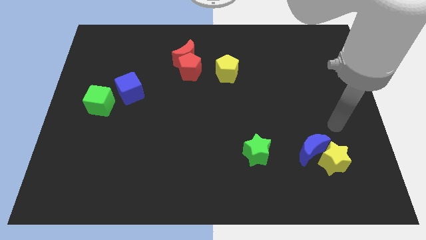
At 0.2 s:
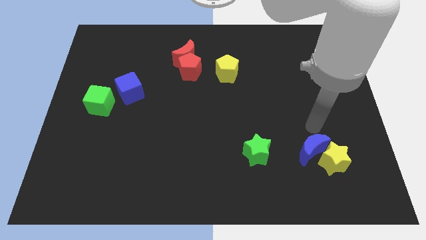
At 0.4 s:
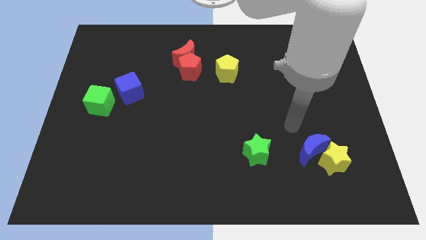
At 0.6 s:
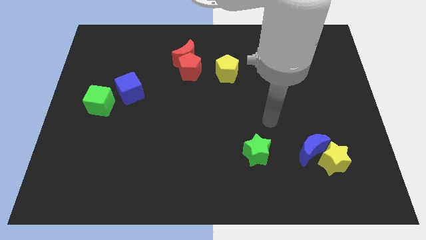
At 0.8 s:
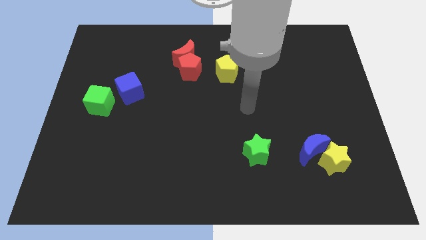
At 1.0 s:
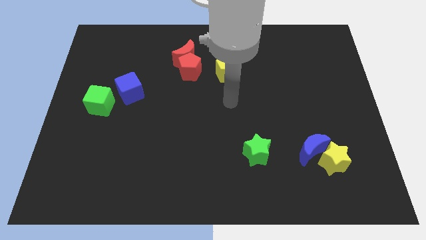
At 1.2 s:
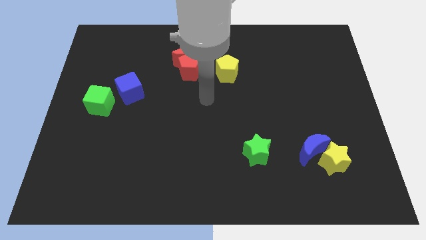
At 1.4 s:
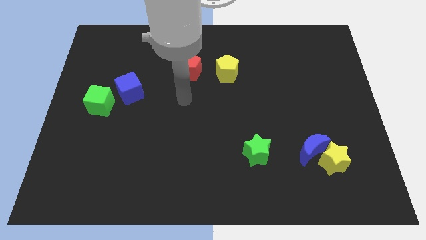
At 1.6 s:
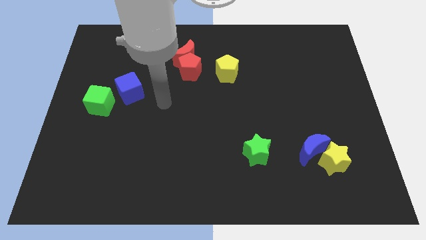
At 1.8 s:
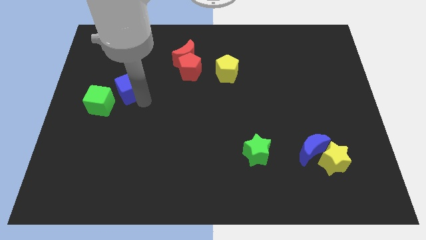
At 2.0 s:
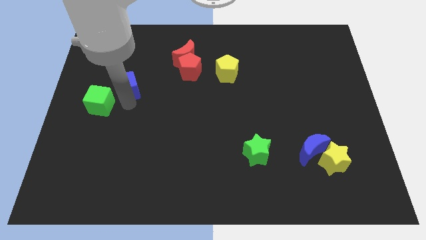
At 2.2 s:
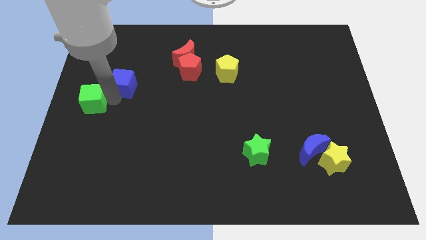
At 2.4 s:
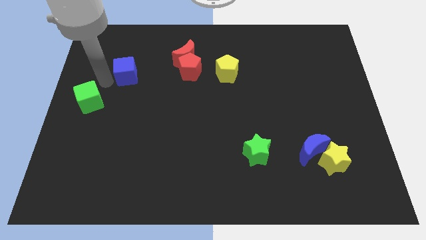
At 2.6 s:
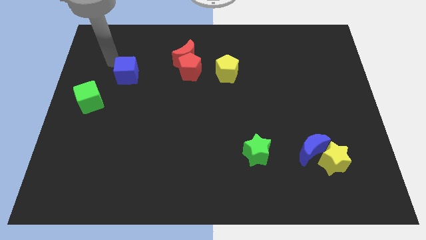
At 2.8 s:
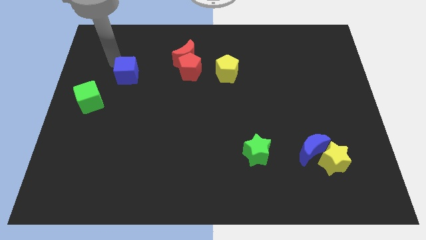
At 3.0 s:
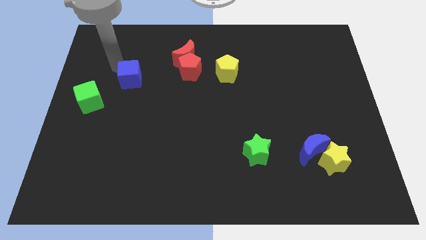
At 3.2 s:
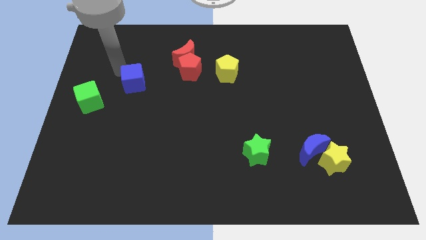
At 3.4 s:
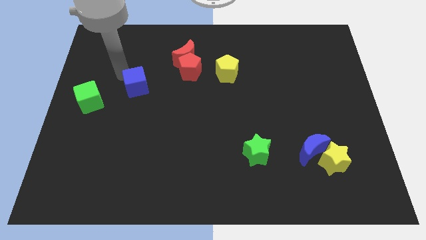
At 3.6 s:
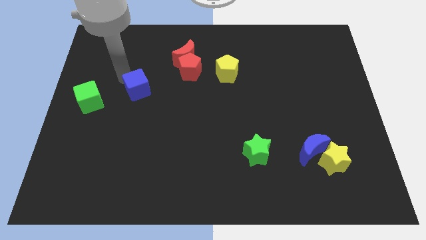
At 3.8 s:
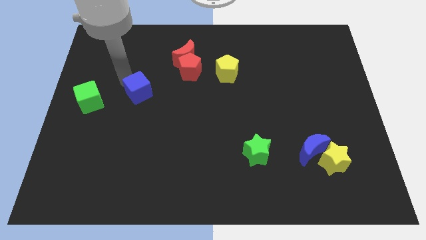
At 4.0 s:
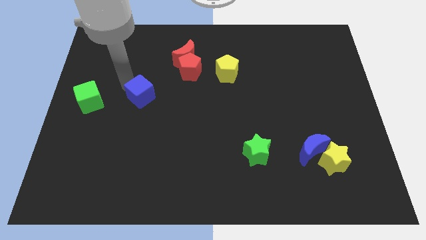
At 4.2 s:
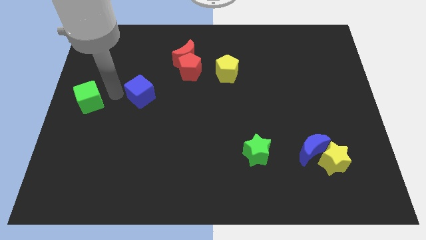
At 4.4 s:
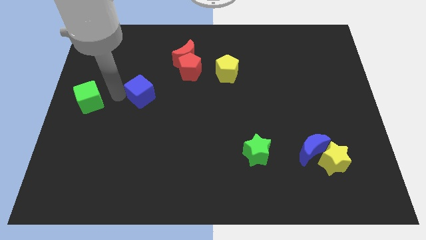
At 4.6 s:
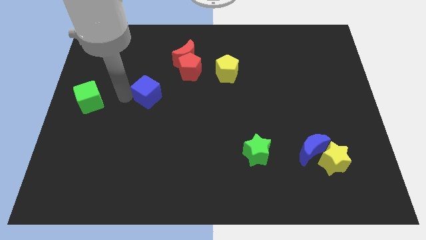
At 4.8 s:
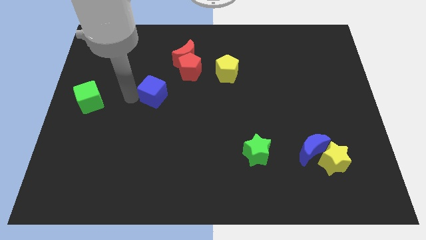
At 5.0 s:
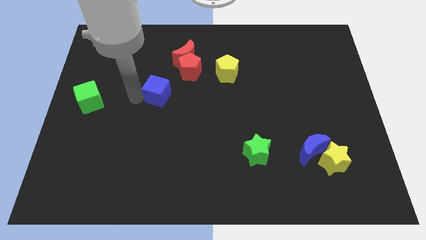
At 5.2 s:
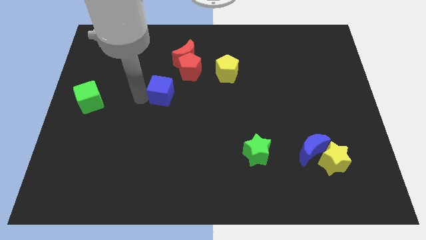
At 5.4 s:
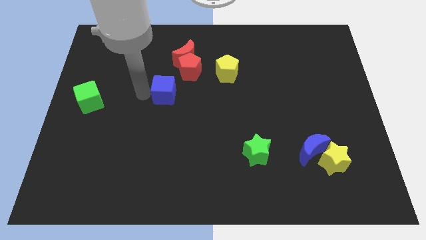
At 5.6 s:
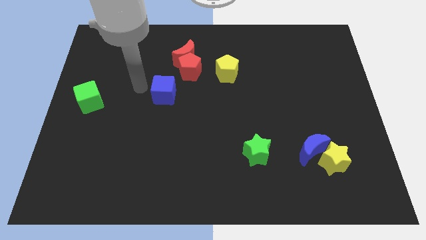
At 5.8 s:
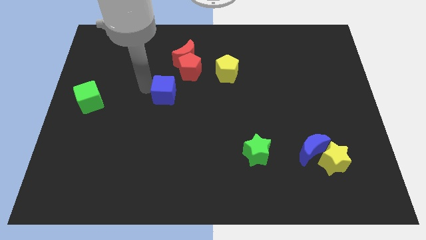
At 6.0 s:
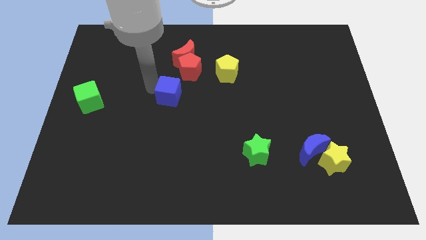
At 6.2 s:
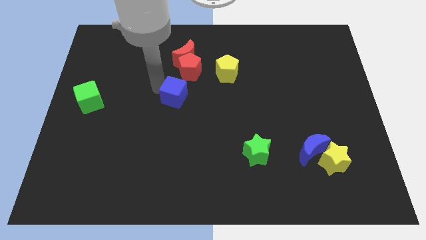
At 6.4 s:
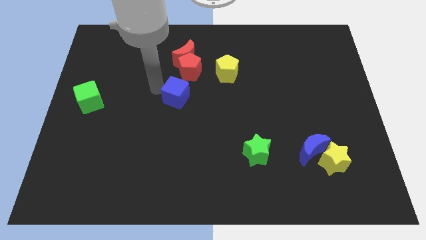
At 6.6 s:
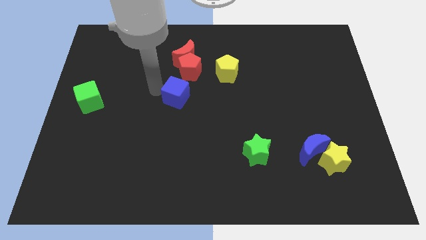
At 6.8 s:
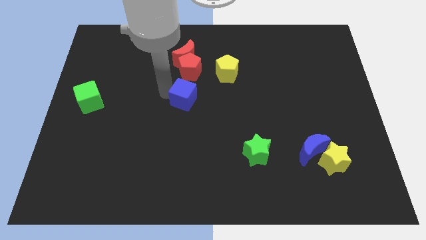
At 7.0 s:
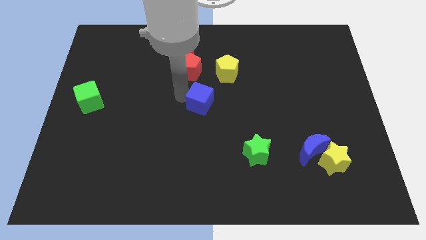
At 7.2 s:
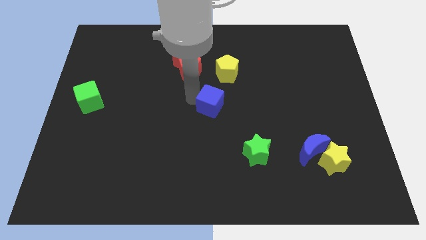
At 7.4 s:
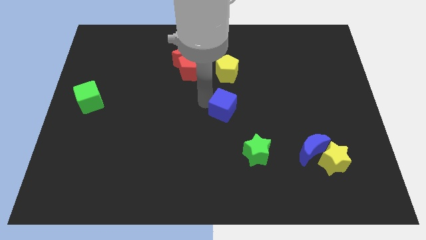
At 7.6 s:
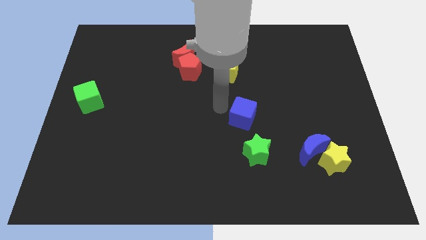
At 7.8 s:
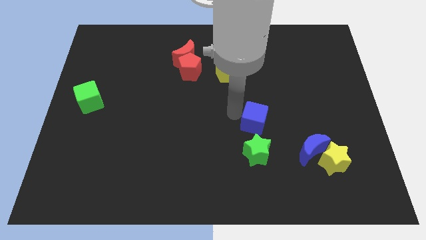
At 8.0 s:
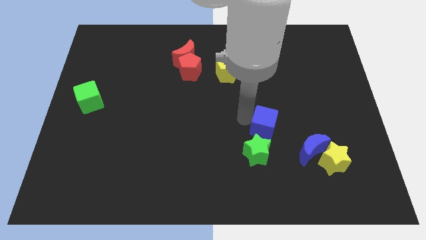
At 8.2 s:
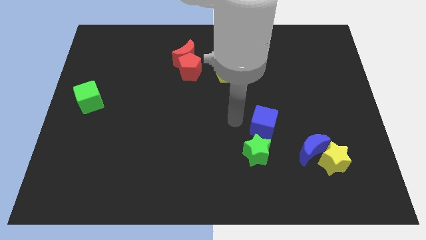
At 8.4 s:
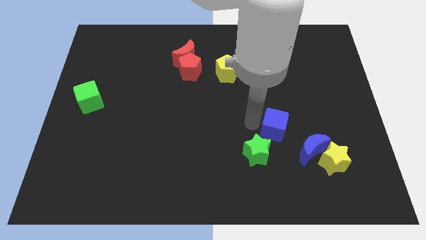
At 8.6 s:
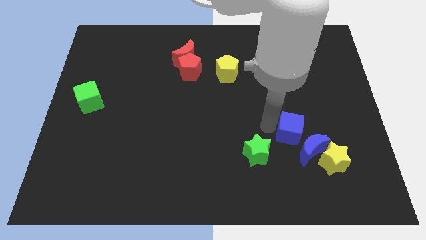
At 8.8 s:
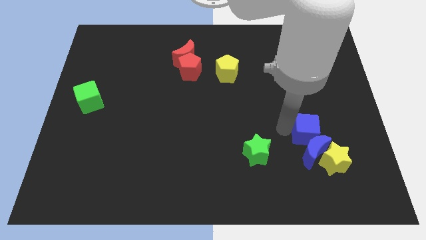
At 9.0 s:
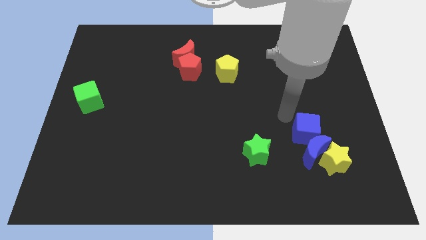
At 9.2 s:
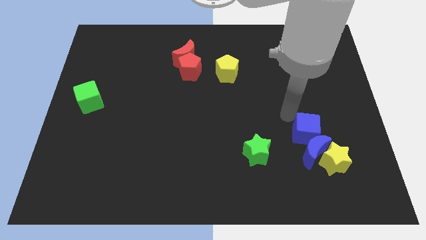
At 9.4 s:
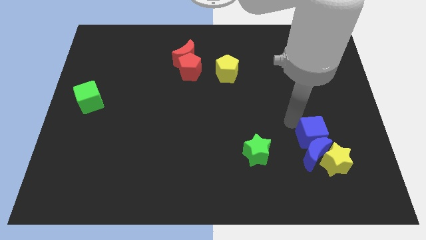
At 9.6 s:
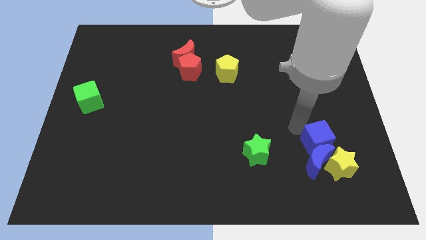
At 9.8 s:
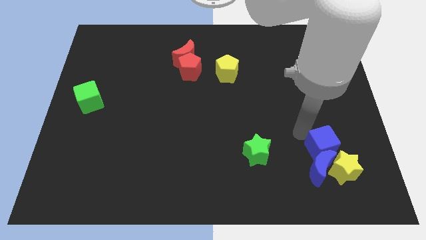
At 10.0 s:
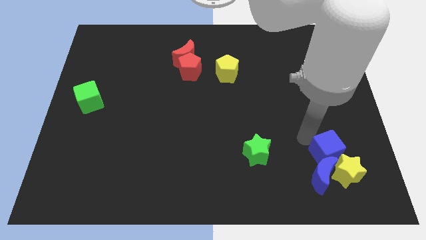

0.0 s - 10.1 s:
push the blue cube towards the yellow star

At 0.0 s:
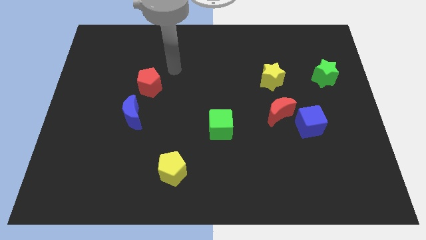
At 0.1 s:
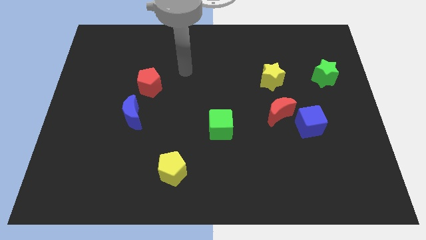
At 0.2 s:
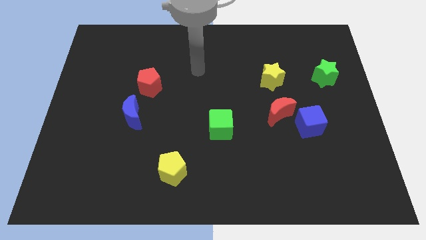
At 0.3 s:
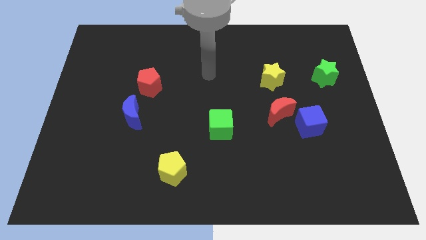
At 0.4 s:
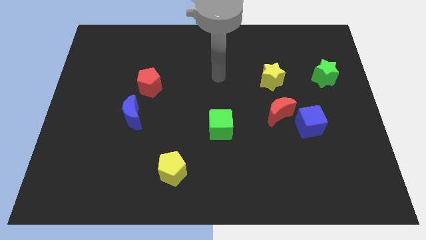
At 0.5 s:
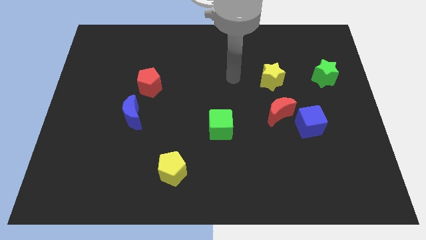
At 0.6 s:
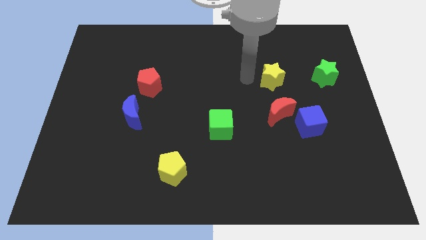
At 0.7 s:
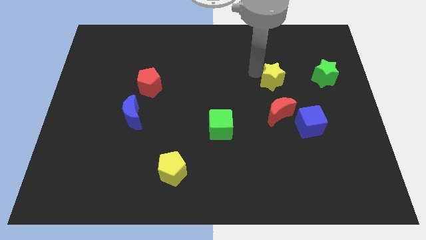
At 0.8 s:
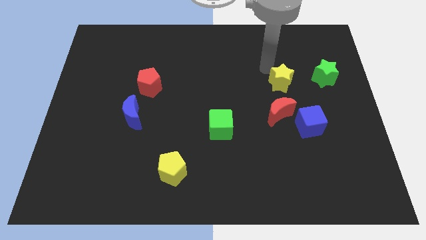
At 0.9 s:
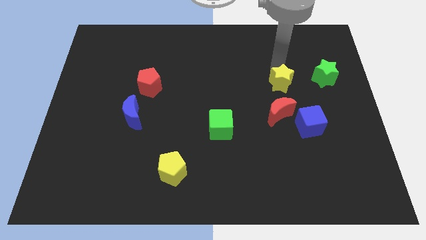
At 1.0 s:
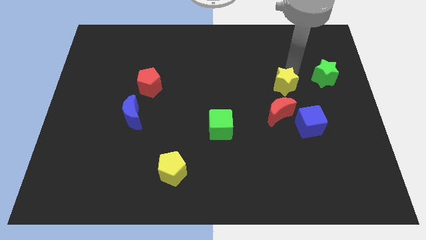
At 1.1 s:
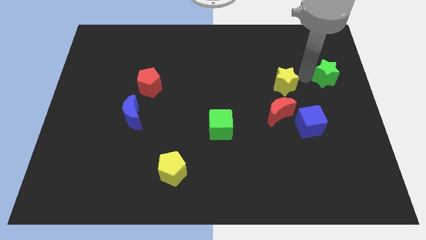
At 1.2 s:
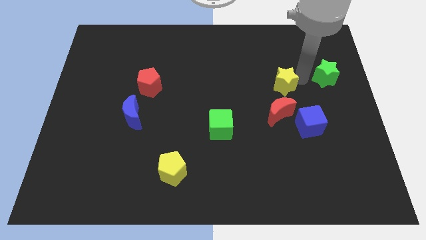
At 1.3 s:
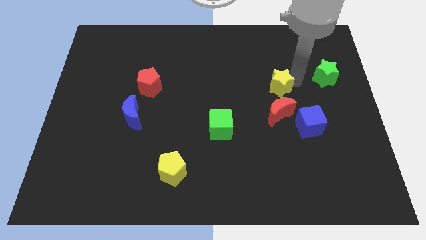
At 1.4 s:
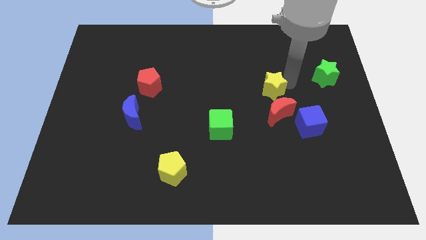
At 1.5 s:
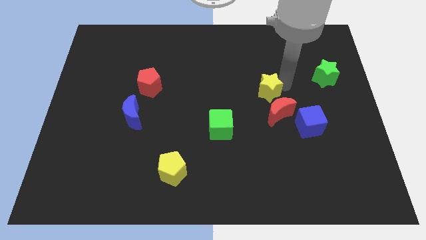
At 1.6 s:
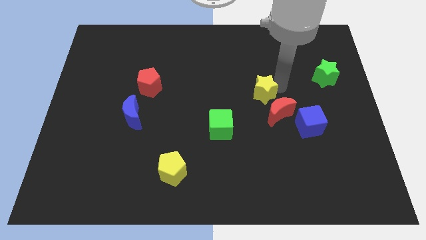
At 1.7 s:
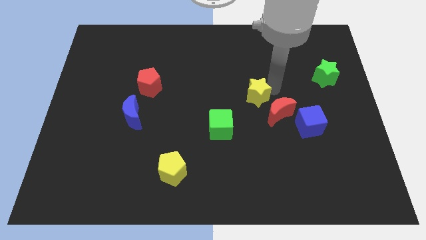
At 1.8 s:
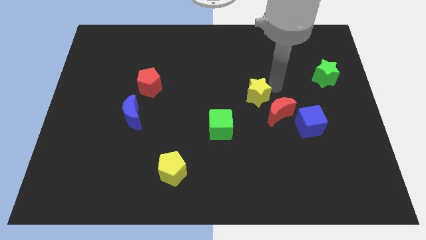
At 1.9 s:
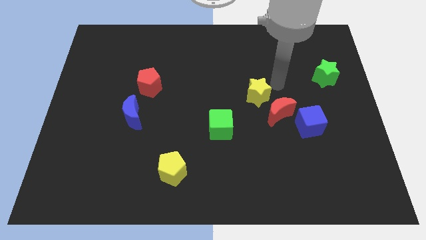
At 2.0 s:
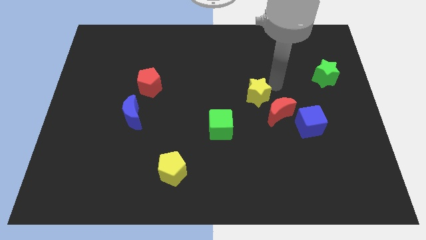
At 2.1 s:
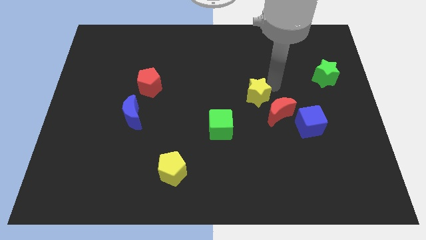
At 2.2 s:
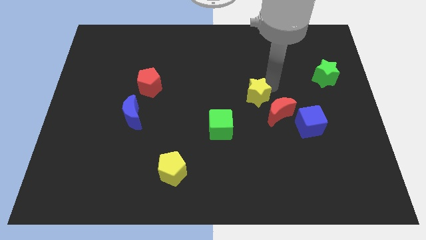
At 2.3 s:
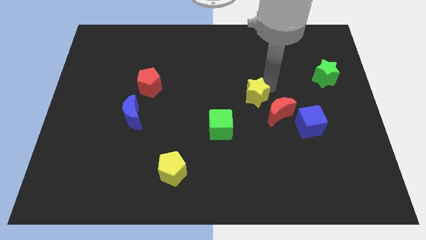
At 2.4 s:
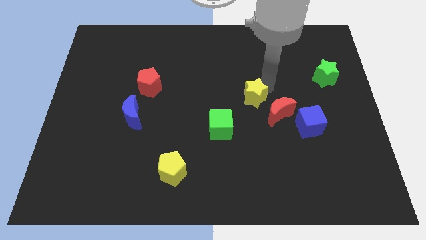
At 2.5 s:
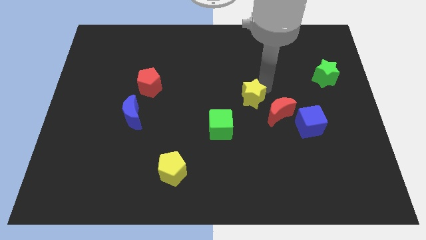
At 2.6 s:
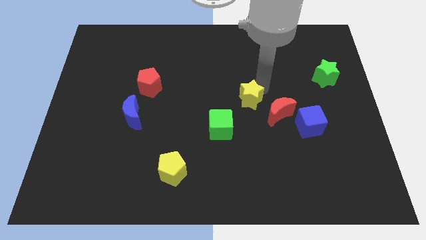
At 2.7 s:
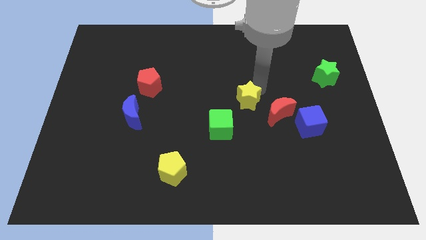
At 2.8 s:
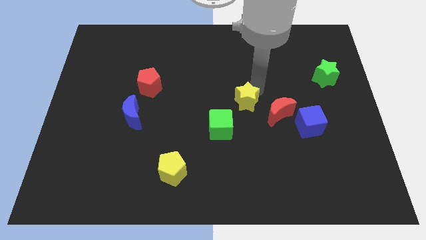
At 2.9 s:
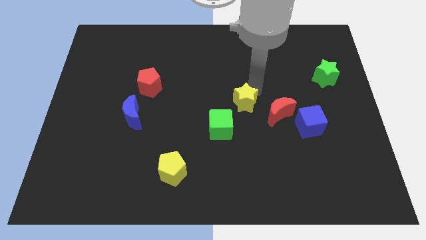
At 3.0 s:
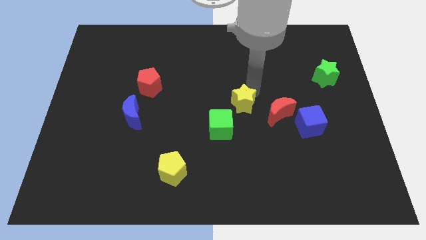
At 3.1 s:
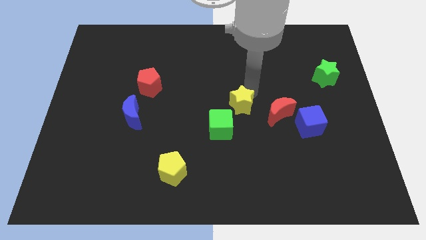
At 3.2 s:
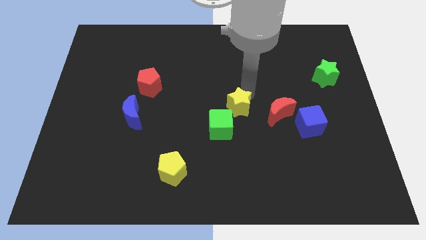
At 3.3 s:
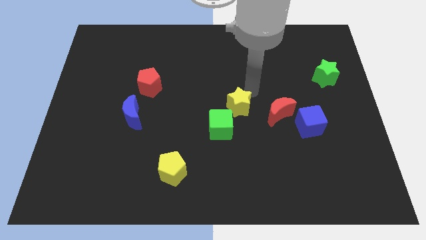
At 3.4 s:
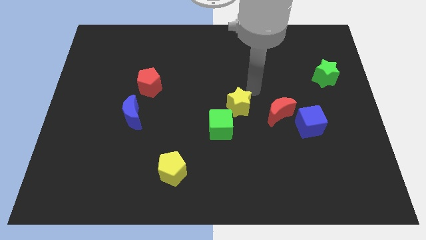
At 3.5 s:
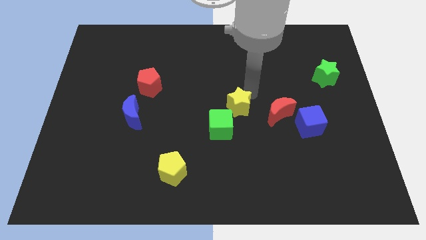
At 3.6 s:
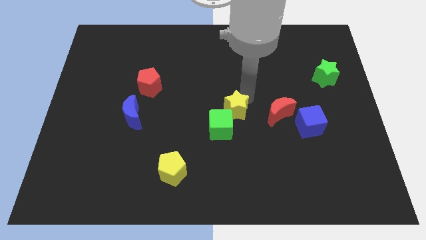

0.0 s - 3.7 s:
push the yellow star towards the green cube
